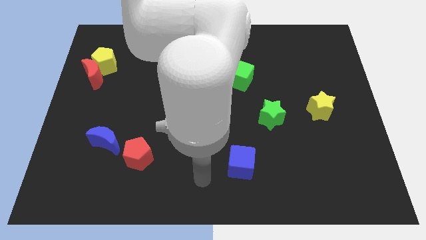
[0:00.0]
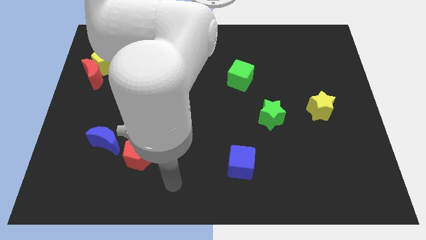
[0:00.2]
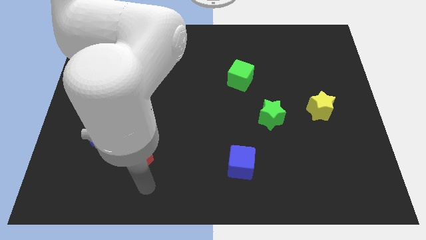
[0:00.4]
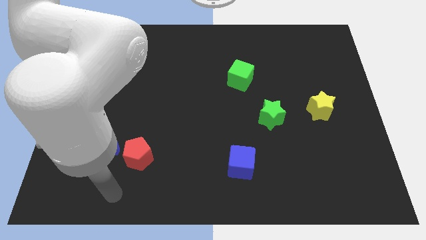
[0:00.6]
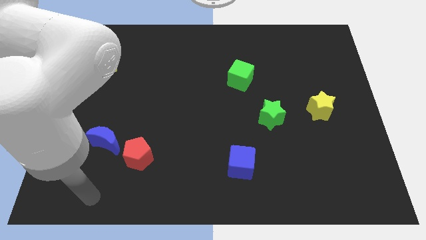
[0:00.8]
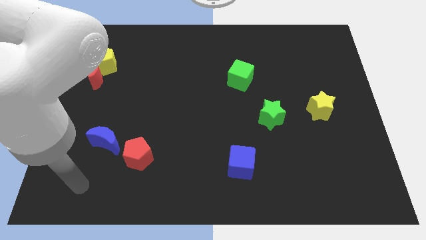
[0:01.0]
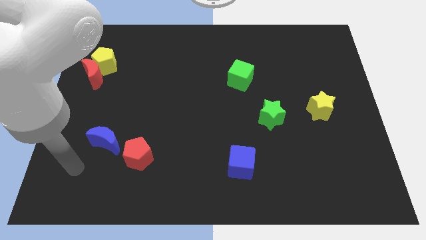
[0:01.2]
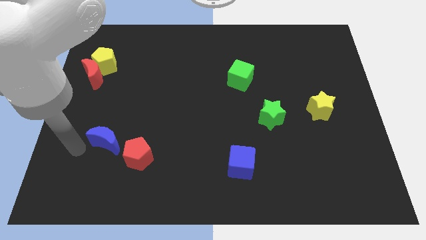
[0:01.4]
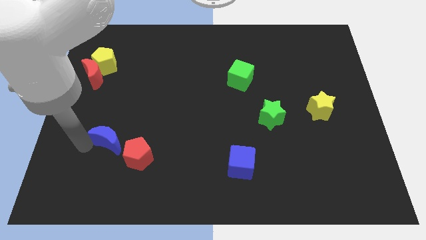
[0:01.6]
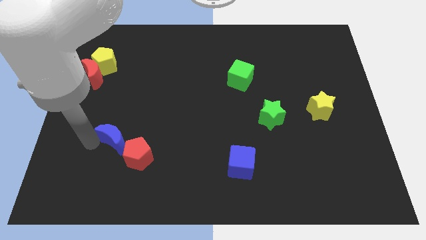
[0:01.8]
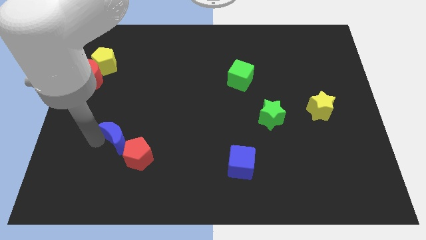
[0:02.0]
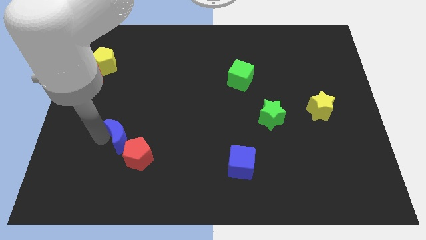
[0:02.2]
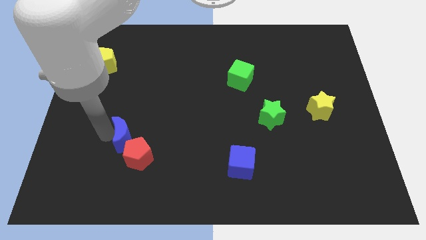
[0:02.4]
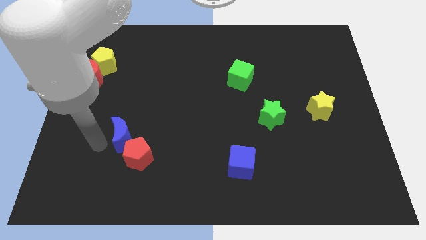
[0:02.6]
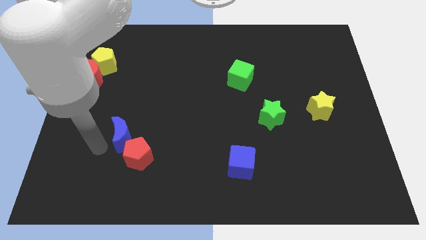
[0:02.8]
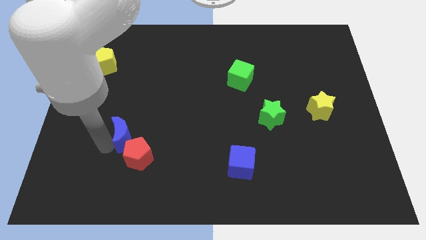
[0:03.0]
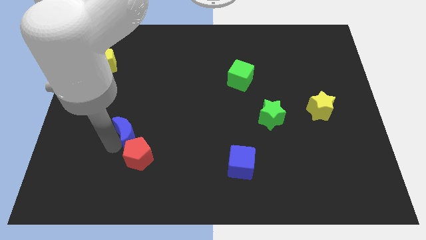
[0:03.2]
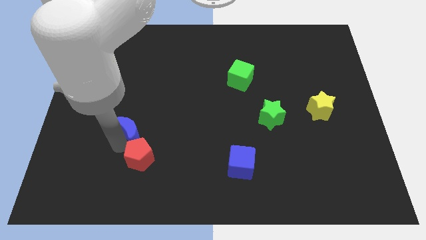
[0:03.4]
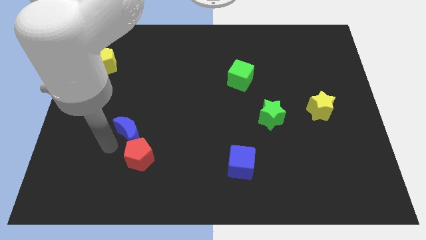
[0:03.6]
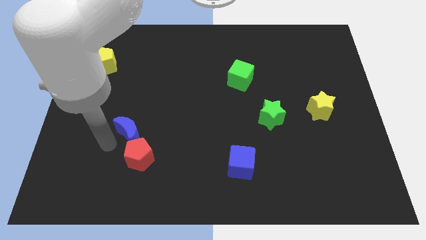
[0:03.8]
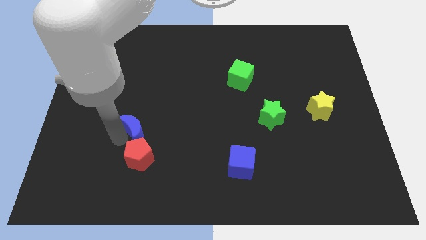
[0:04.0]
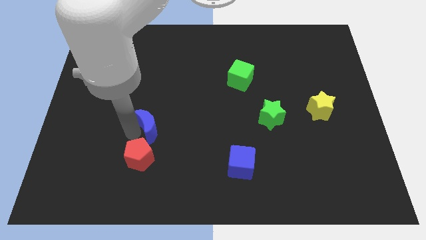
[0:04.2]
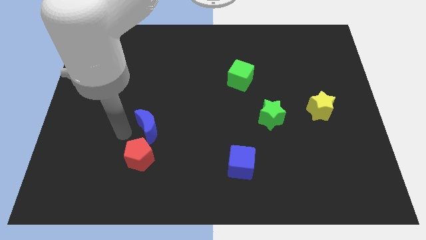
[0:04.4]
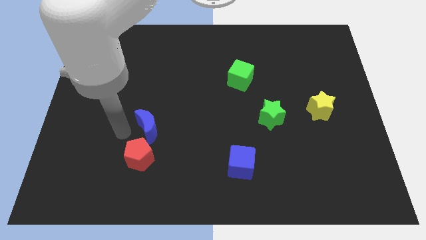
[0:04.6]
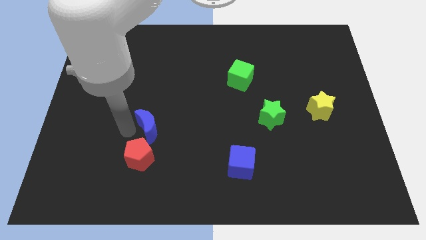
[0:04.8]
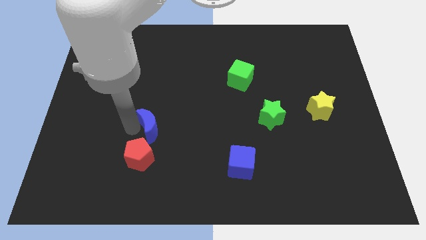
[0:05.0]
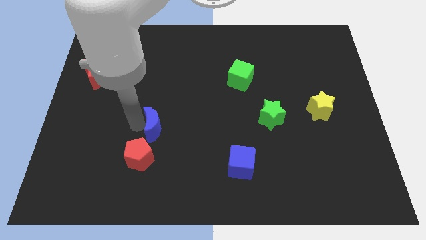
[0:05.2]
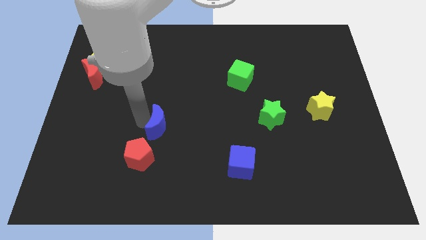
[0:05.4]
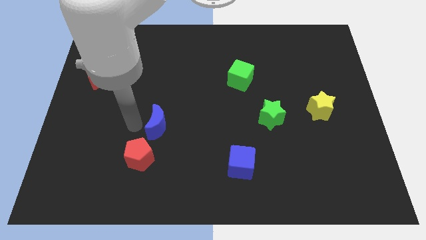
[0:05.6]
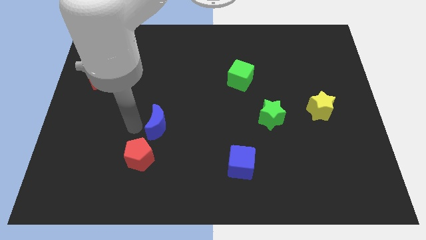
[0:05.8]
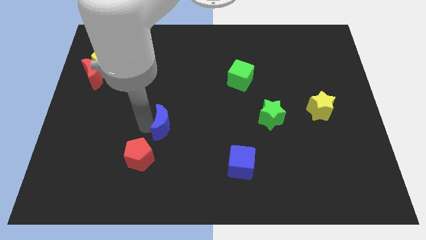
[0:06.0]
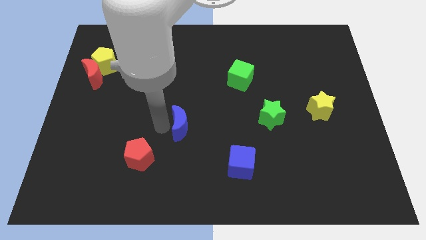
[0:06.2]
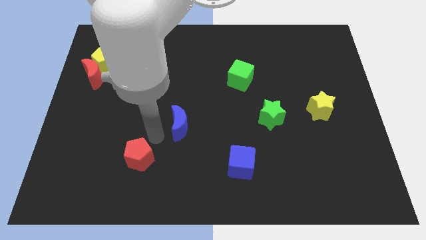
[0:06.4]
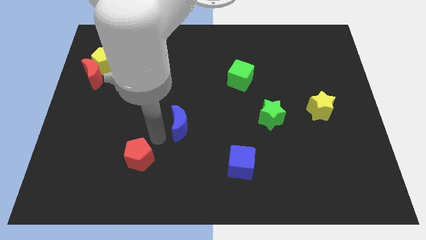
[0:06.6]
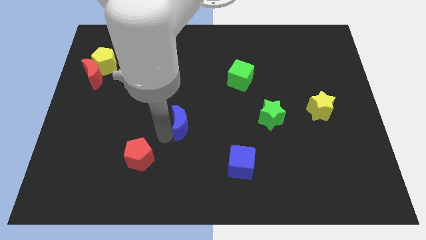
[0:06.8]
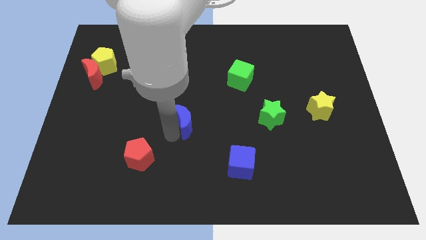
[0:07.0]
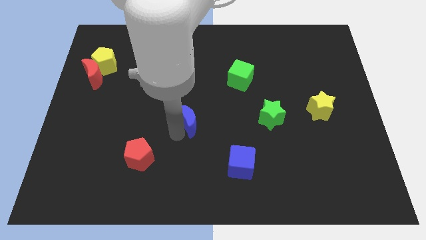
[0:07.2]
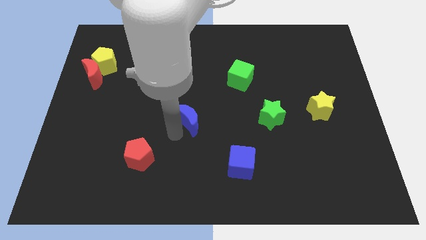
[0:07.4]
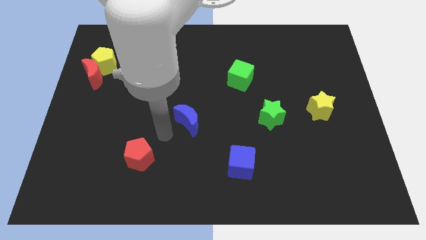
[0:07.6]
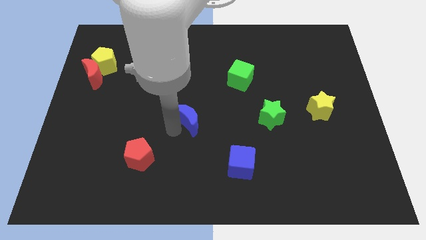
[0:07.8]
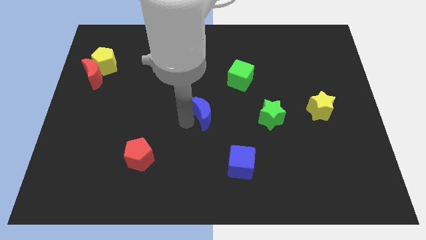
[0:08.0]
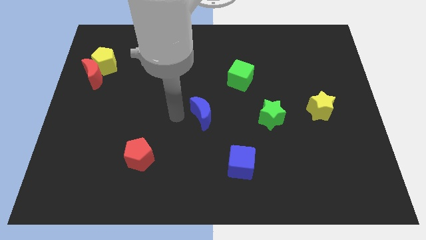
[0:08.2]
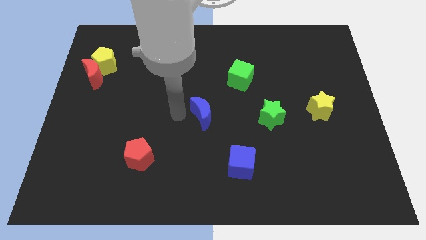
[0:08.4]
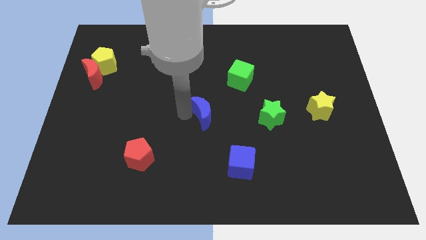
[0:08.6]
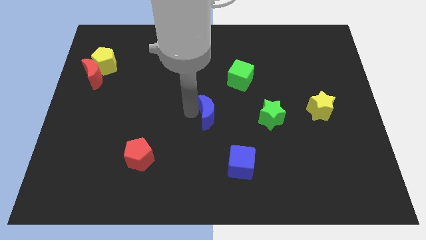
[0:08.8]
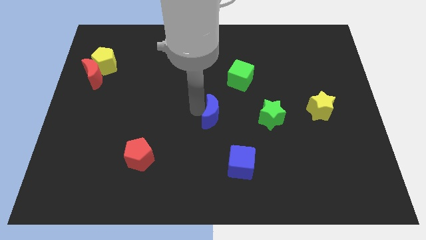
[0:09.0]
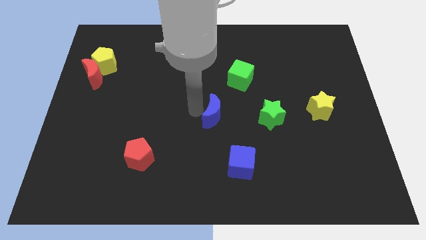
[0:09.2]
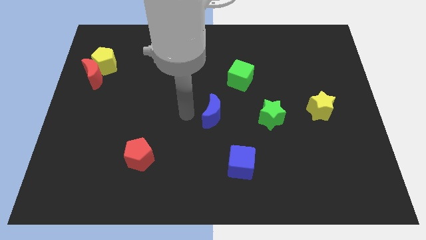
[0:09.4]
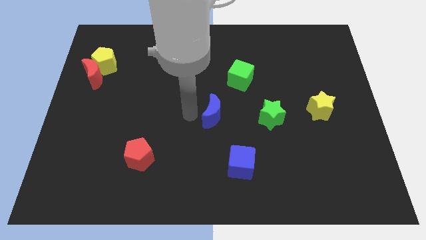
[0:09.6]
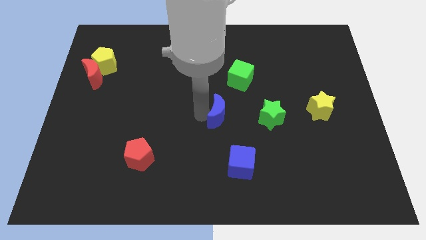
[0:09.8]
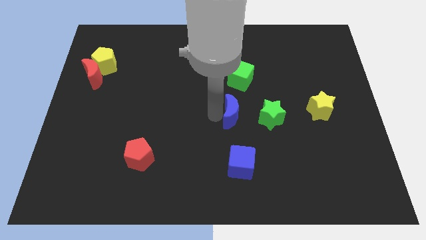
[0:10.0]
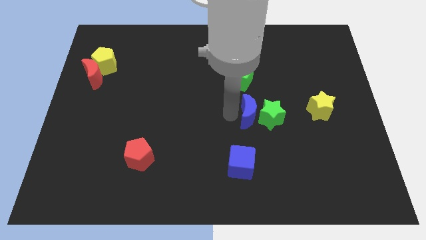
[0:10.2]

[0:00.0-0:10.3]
push the blue moon to the green star

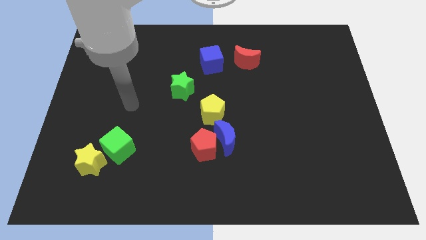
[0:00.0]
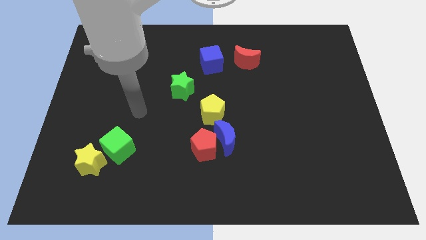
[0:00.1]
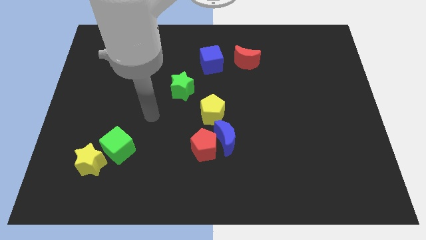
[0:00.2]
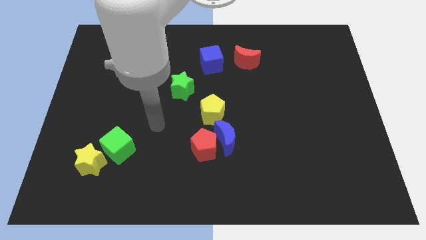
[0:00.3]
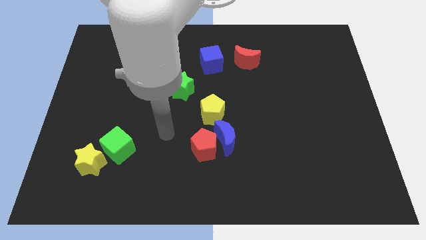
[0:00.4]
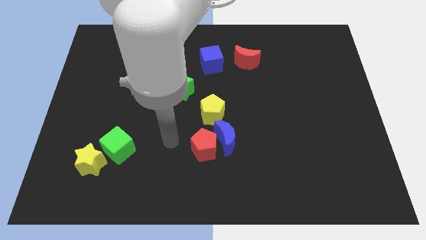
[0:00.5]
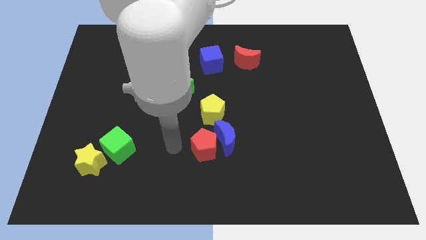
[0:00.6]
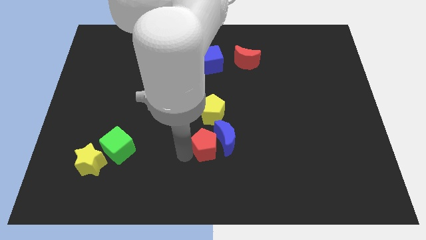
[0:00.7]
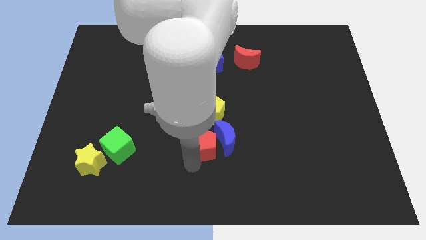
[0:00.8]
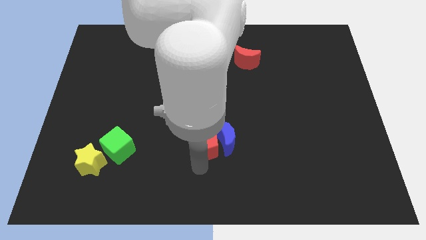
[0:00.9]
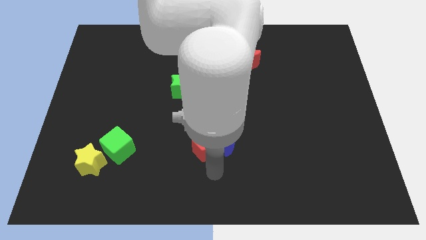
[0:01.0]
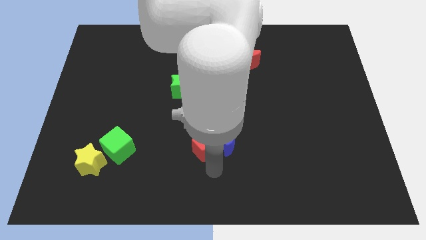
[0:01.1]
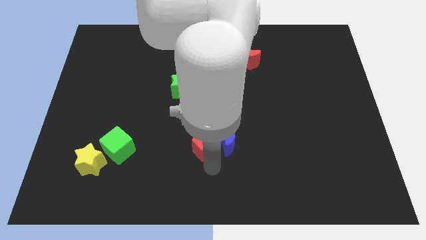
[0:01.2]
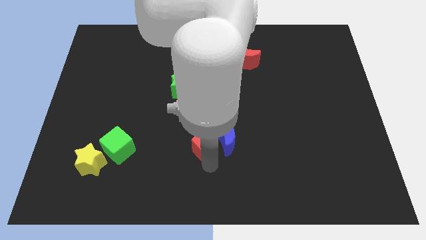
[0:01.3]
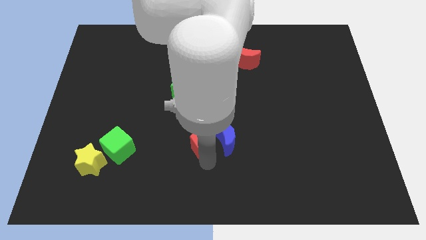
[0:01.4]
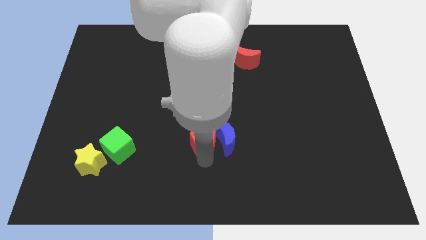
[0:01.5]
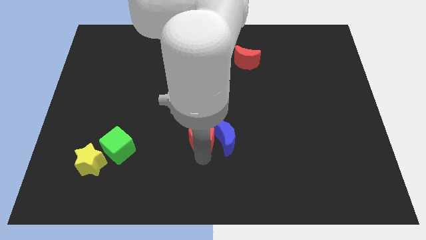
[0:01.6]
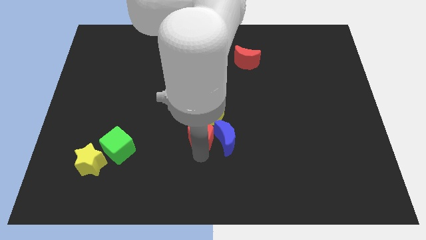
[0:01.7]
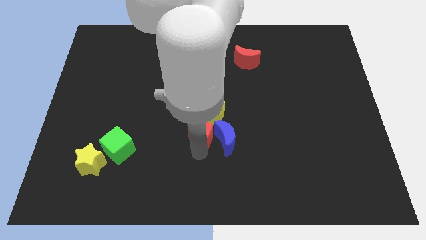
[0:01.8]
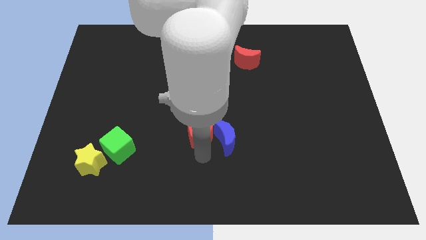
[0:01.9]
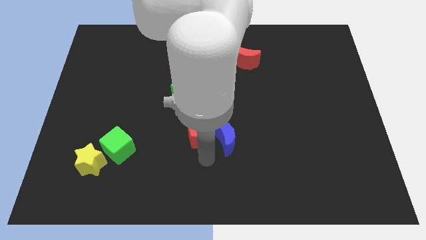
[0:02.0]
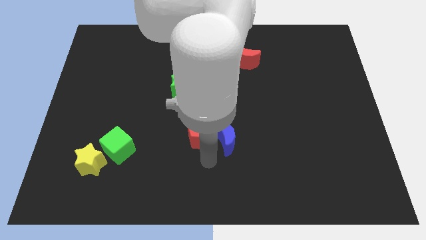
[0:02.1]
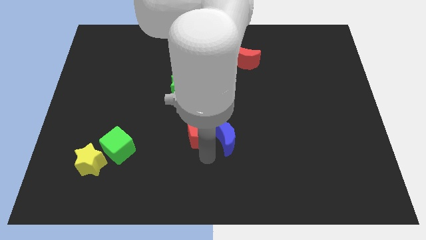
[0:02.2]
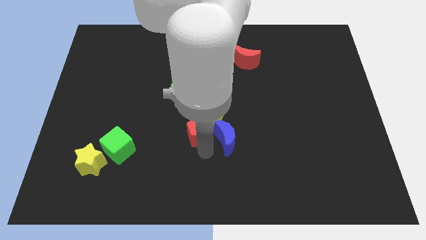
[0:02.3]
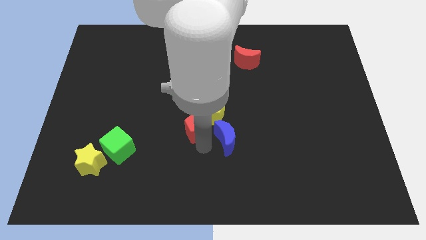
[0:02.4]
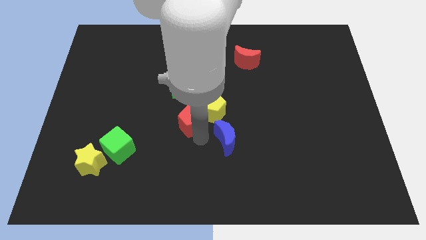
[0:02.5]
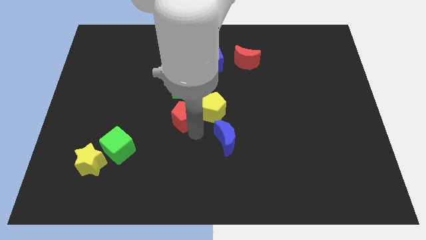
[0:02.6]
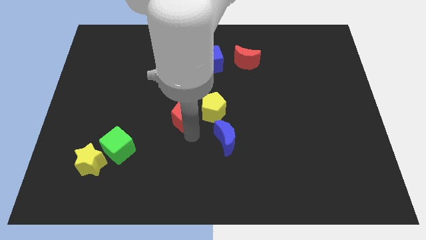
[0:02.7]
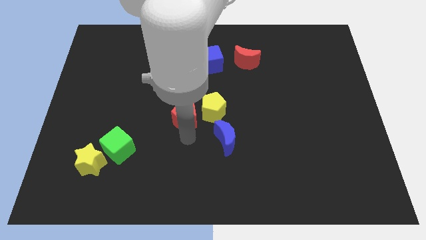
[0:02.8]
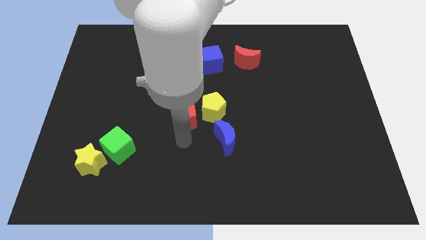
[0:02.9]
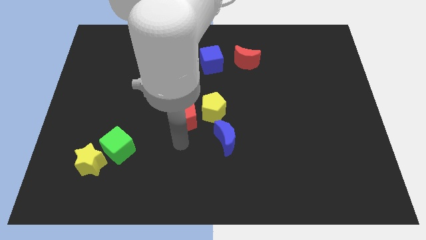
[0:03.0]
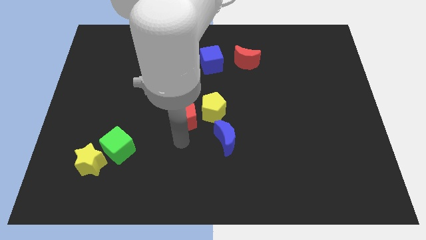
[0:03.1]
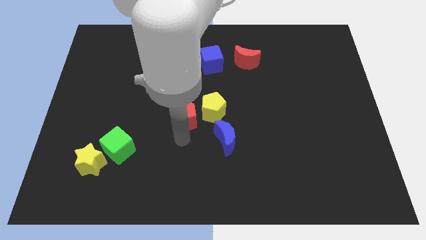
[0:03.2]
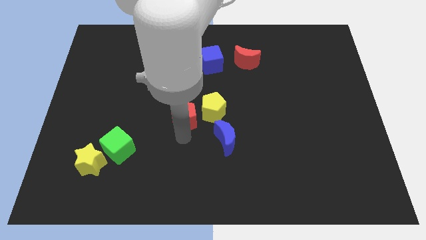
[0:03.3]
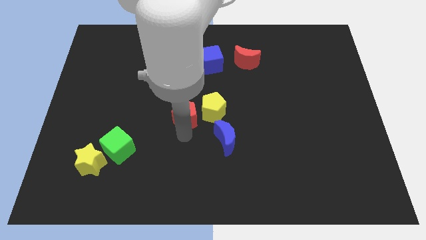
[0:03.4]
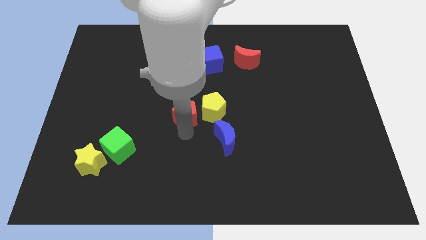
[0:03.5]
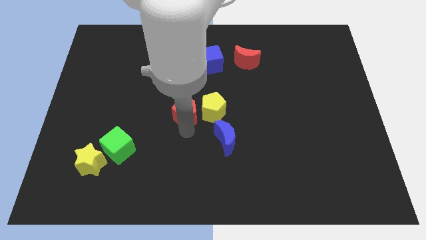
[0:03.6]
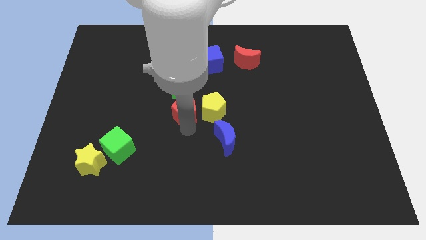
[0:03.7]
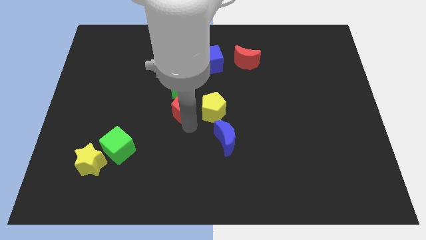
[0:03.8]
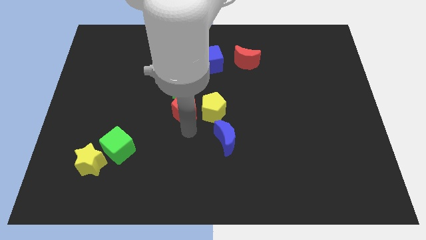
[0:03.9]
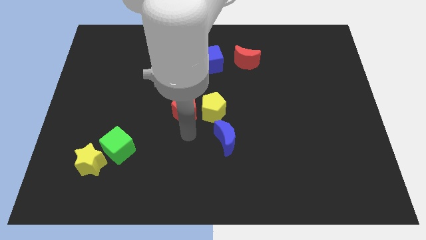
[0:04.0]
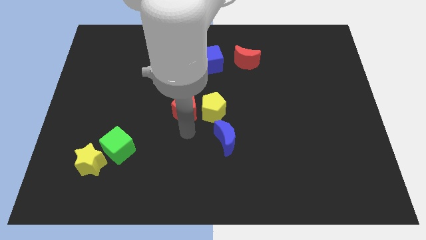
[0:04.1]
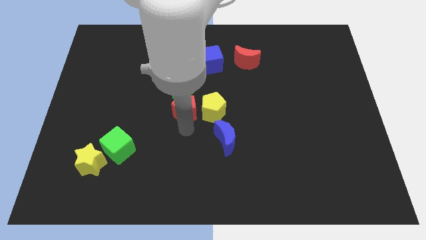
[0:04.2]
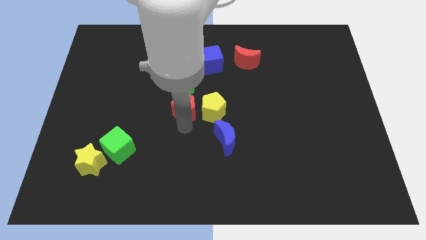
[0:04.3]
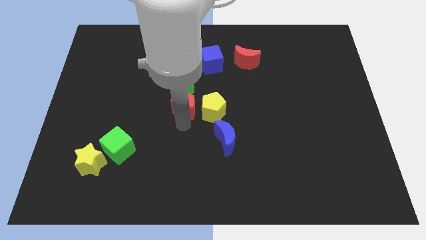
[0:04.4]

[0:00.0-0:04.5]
push the red pentagon towards the green star
